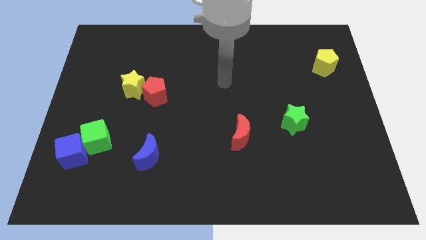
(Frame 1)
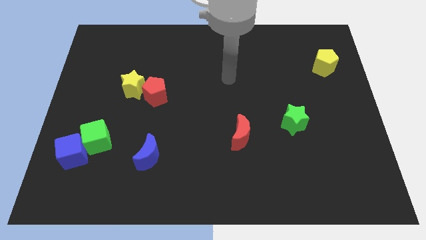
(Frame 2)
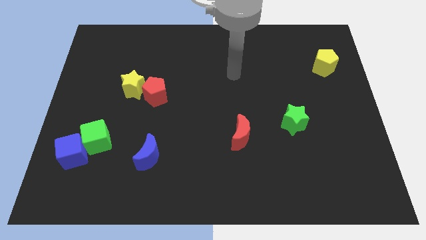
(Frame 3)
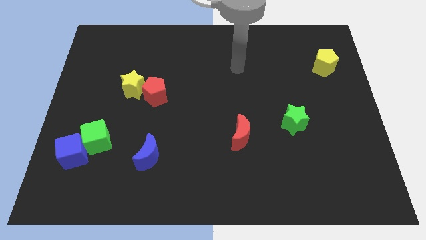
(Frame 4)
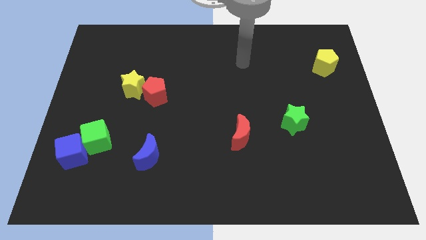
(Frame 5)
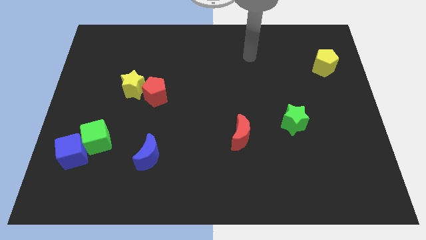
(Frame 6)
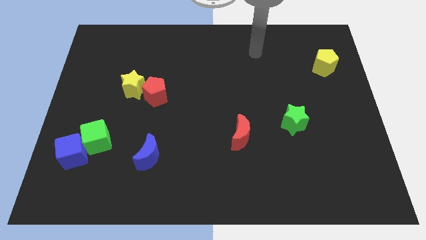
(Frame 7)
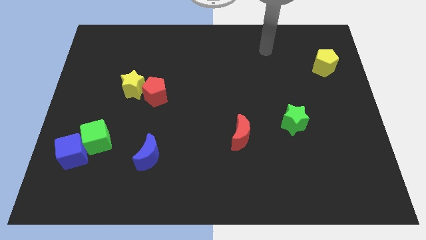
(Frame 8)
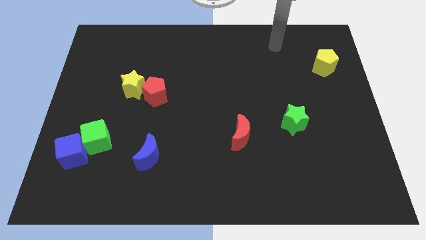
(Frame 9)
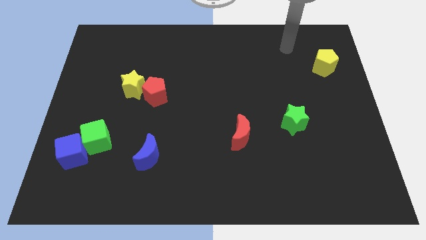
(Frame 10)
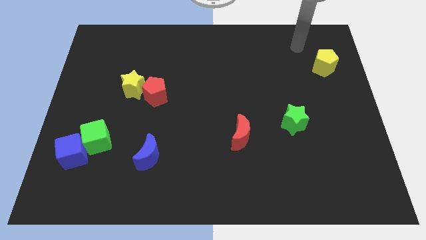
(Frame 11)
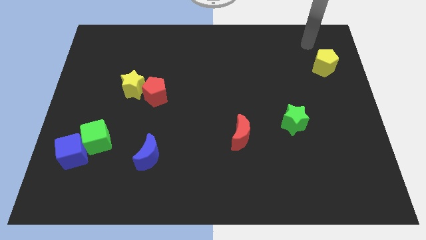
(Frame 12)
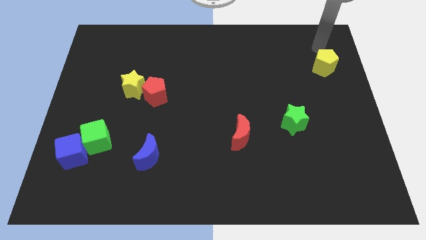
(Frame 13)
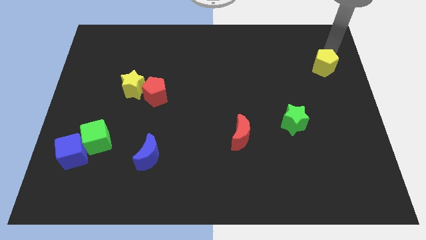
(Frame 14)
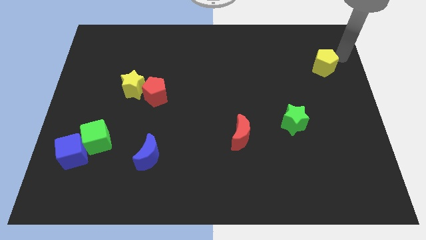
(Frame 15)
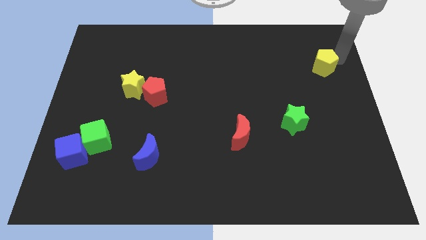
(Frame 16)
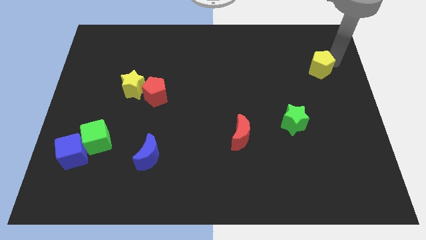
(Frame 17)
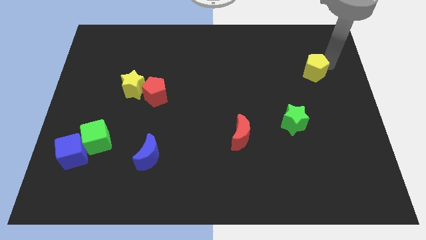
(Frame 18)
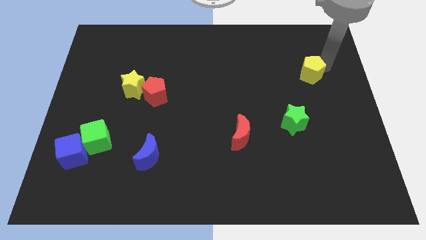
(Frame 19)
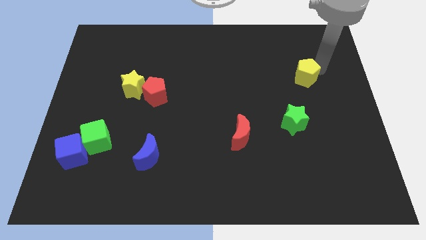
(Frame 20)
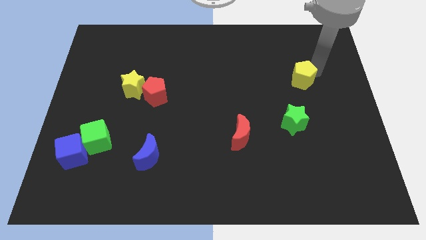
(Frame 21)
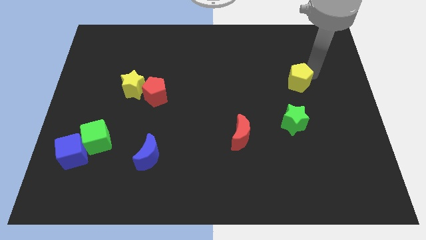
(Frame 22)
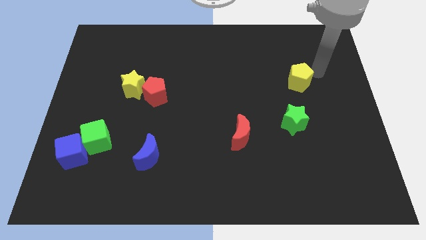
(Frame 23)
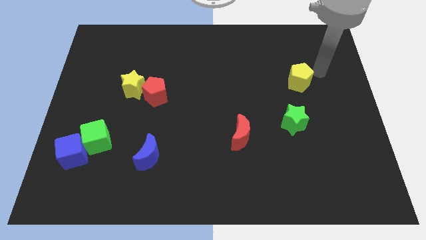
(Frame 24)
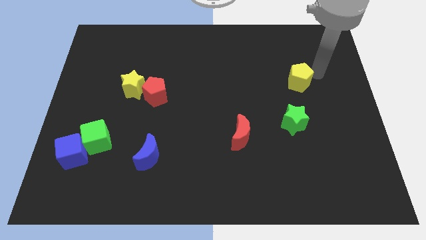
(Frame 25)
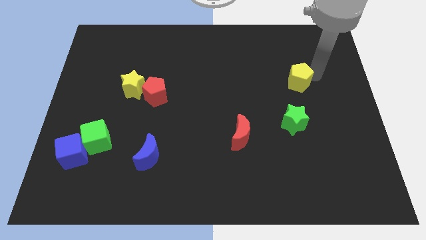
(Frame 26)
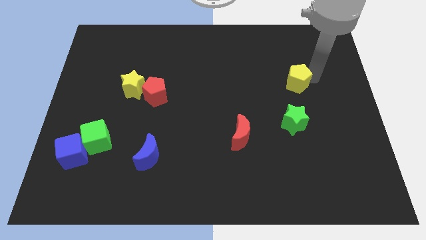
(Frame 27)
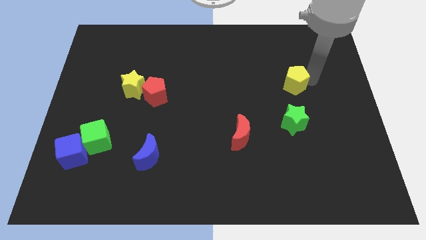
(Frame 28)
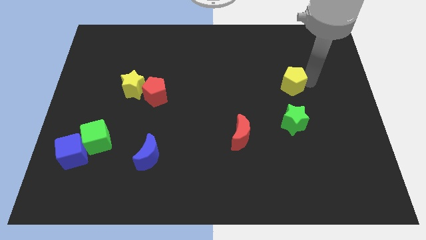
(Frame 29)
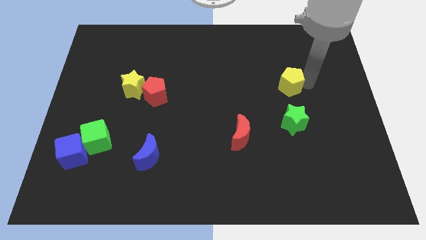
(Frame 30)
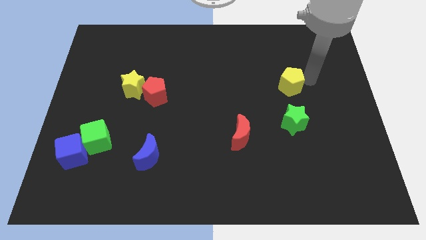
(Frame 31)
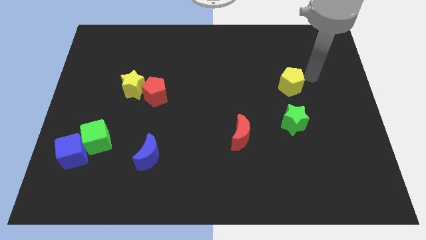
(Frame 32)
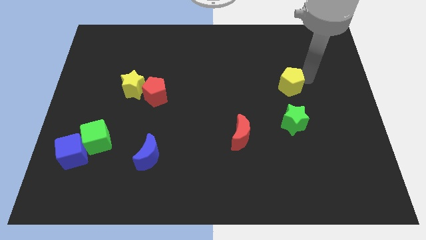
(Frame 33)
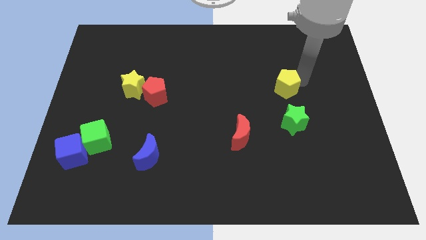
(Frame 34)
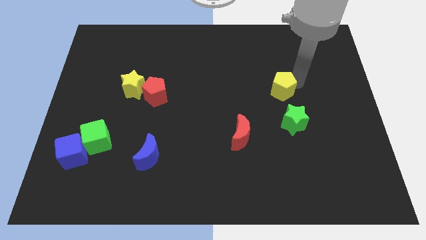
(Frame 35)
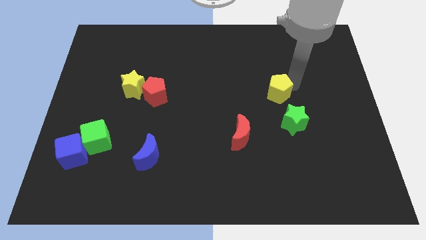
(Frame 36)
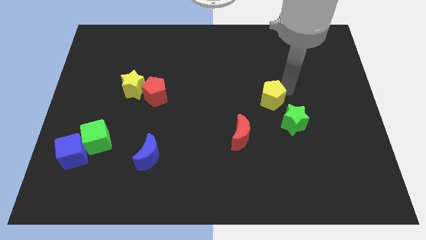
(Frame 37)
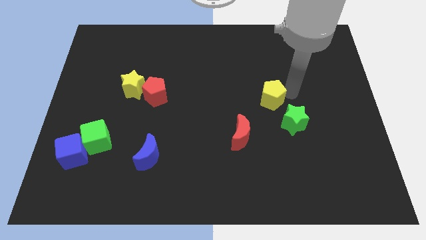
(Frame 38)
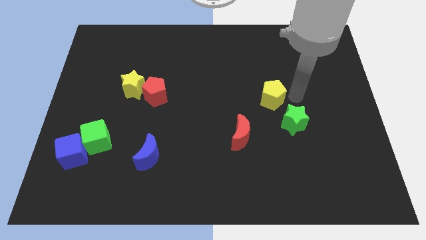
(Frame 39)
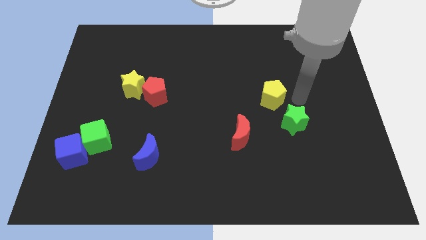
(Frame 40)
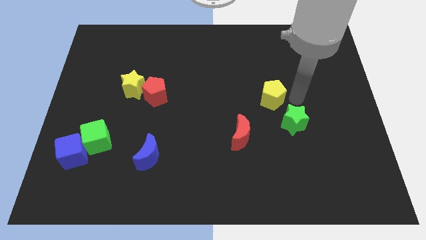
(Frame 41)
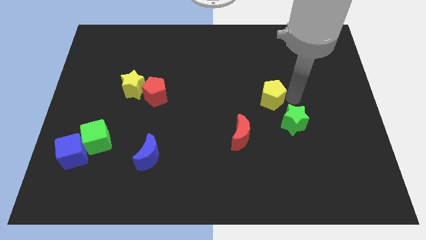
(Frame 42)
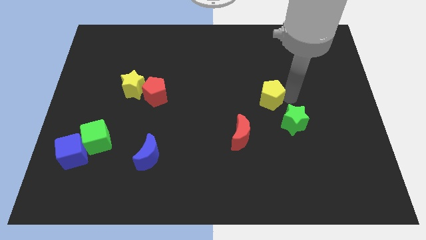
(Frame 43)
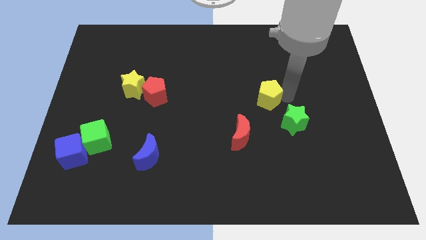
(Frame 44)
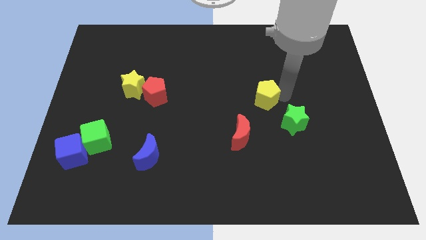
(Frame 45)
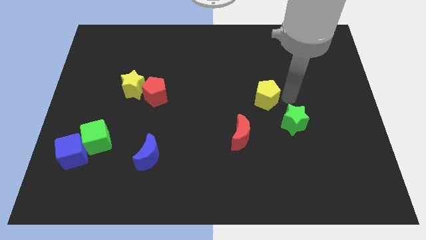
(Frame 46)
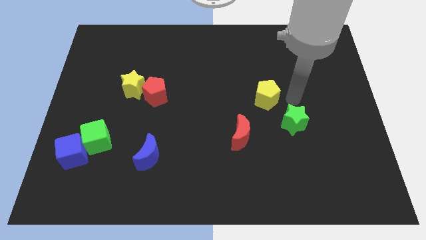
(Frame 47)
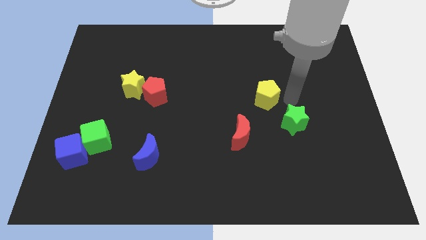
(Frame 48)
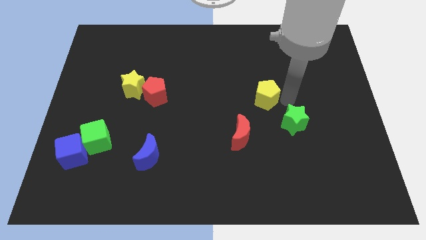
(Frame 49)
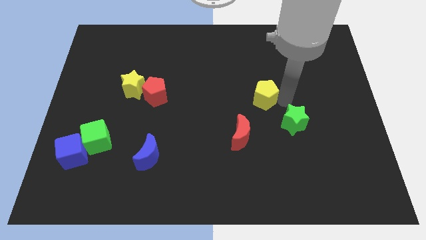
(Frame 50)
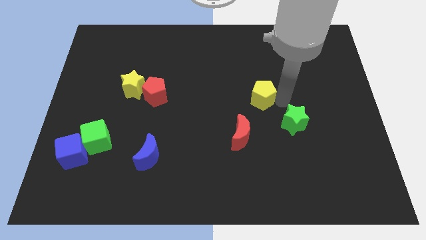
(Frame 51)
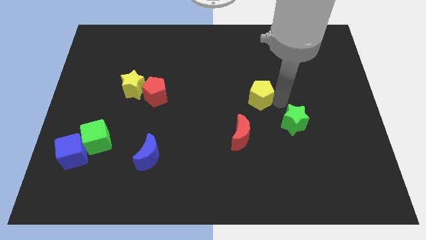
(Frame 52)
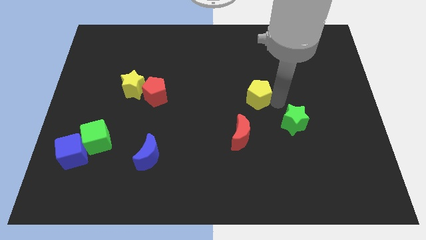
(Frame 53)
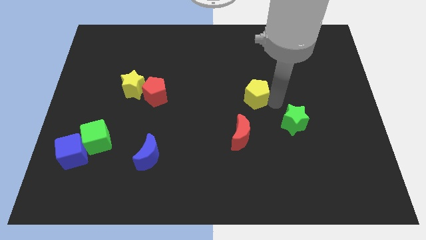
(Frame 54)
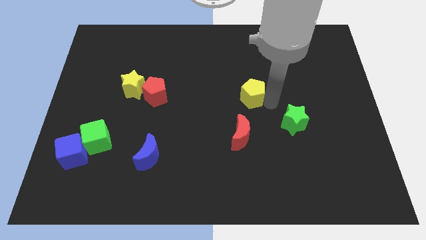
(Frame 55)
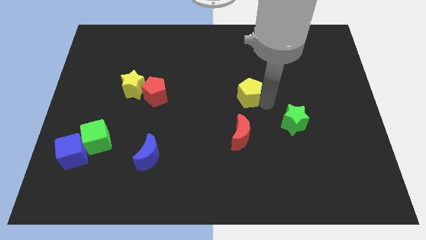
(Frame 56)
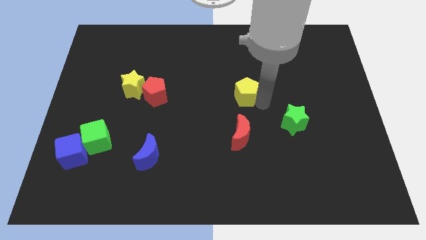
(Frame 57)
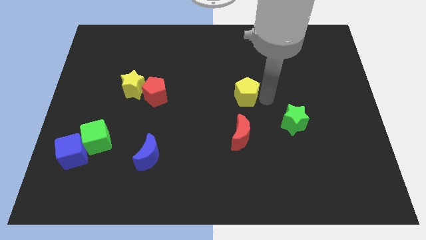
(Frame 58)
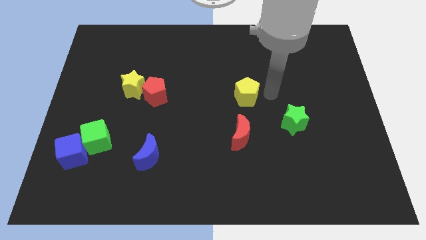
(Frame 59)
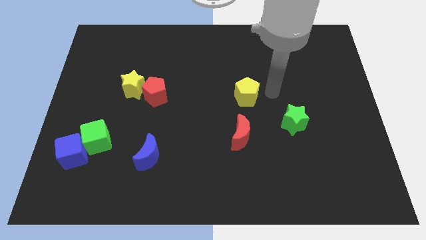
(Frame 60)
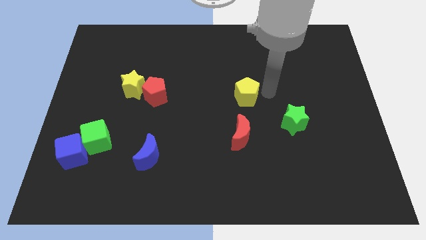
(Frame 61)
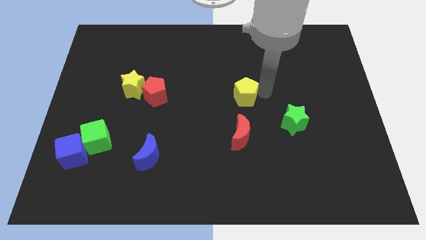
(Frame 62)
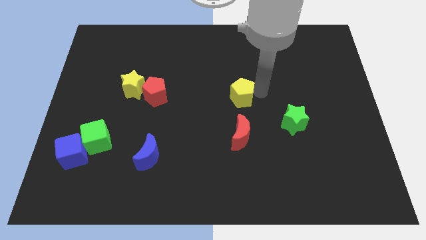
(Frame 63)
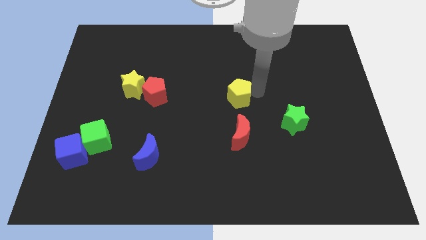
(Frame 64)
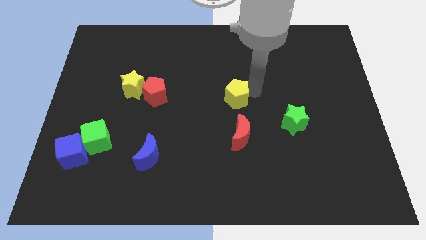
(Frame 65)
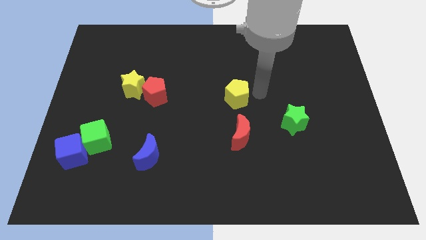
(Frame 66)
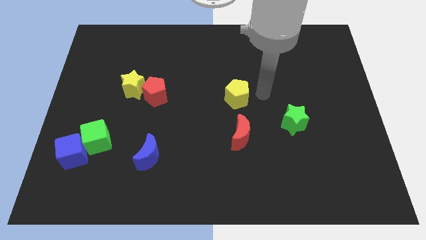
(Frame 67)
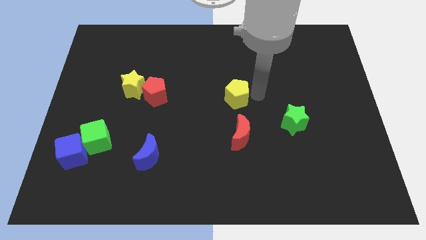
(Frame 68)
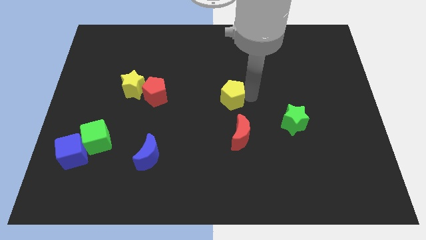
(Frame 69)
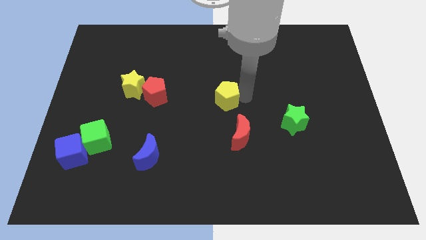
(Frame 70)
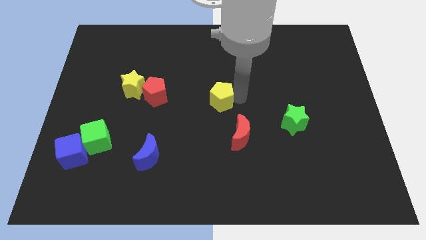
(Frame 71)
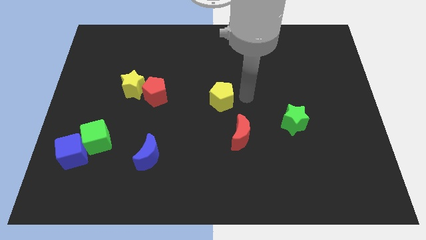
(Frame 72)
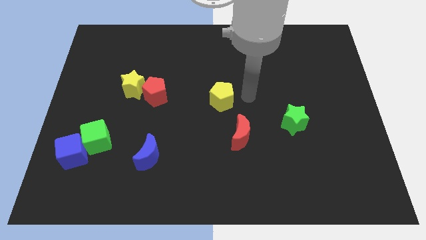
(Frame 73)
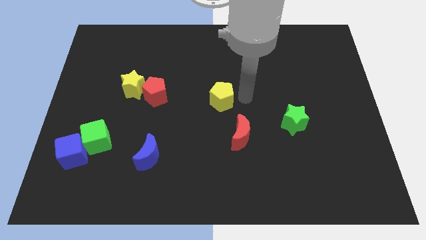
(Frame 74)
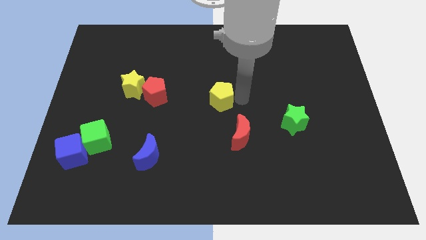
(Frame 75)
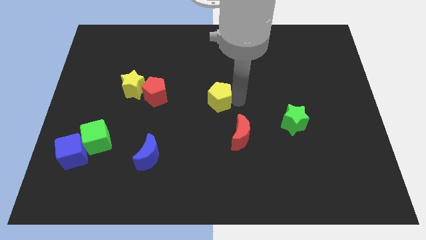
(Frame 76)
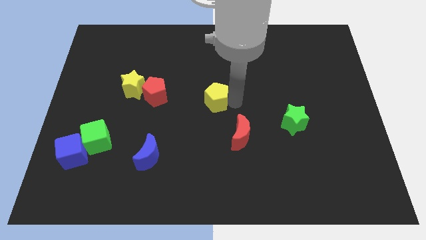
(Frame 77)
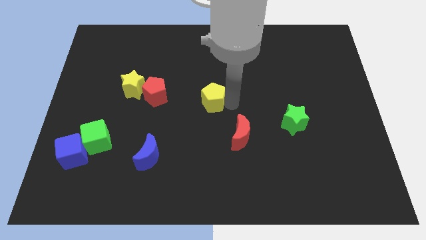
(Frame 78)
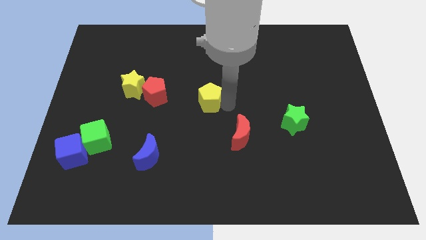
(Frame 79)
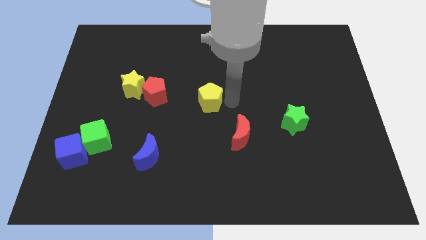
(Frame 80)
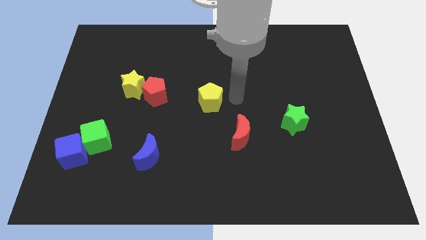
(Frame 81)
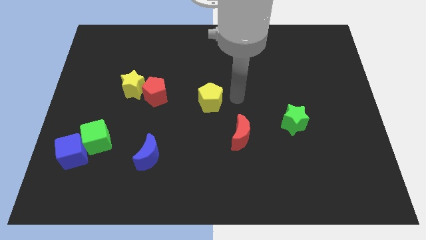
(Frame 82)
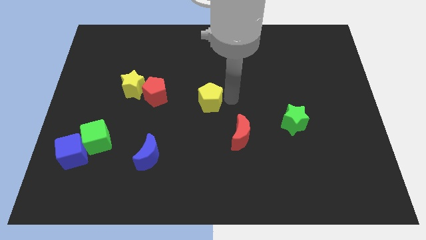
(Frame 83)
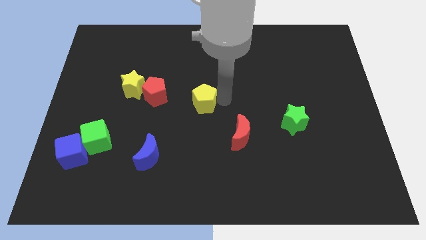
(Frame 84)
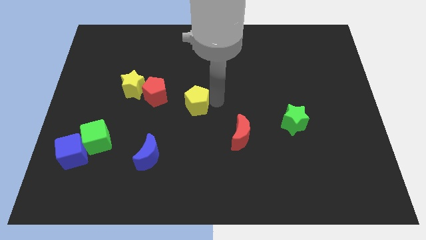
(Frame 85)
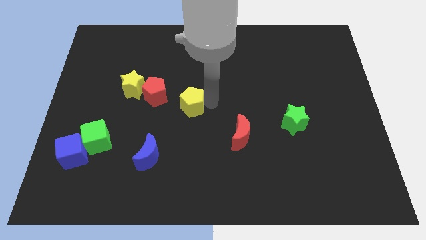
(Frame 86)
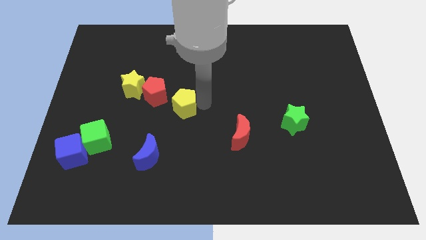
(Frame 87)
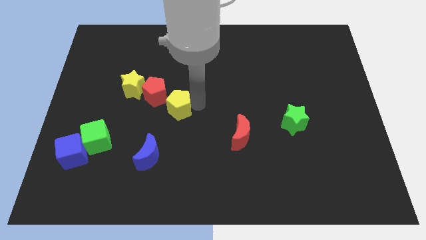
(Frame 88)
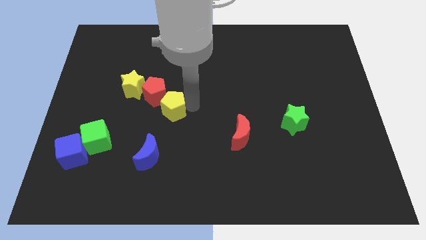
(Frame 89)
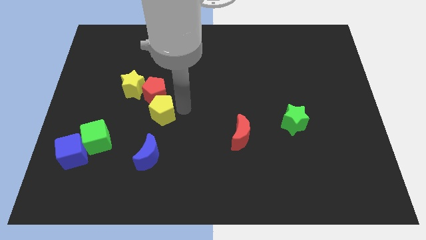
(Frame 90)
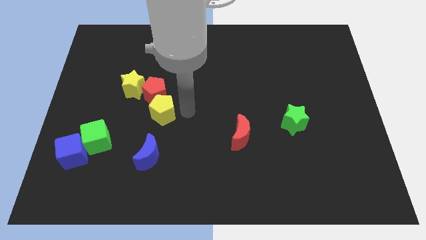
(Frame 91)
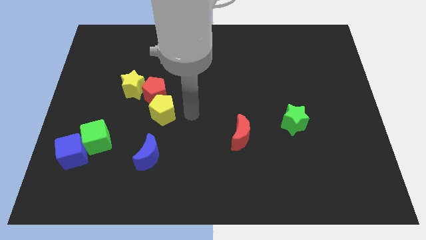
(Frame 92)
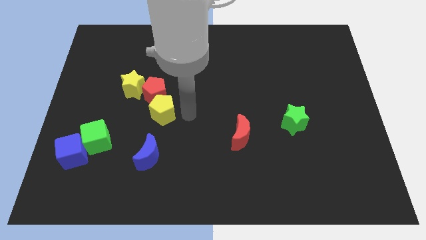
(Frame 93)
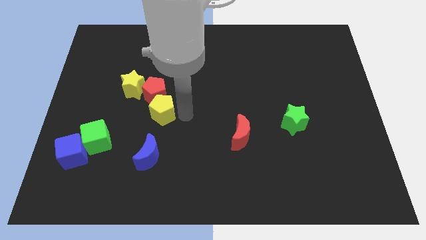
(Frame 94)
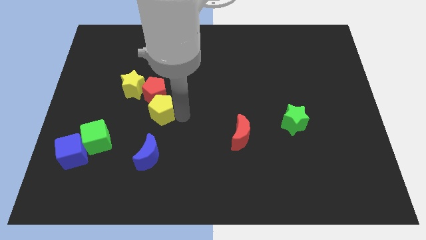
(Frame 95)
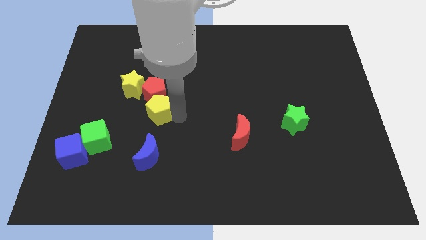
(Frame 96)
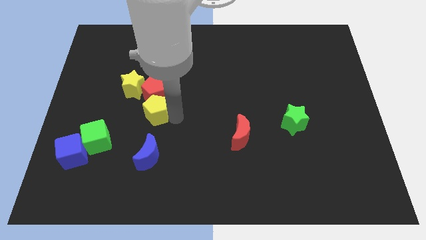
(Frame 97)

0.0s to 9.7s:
put the yellow pentagon to the bottom left side of the red pentagon
